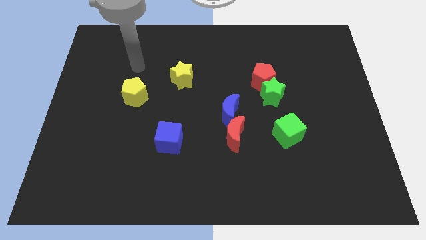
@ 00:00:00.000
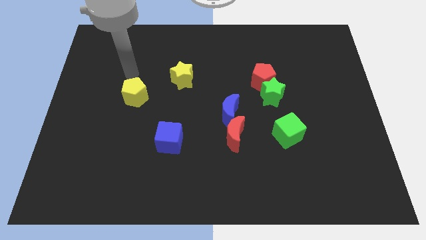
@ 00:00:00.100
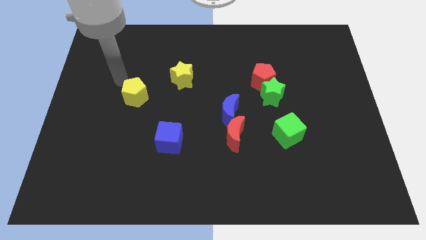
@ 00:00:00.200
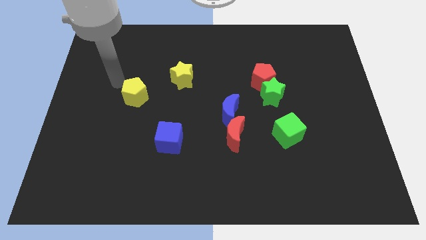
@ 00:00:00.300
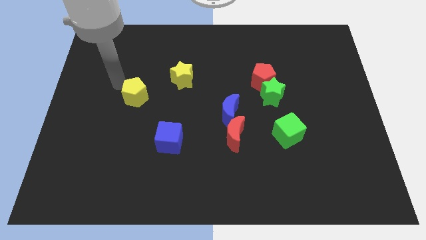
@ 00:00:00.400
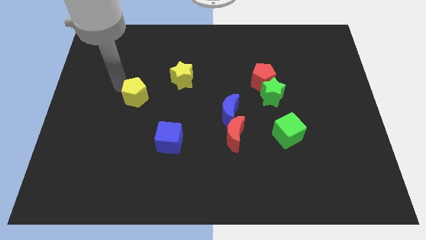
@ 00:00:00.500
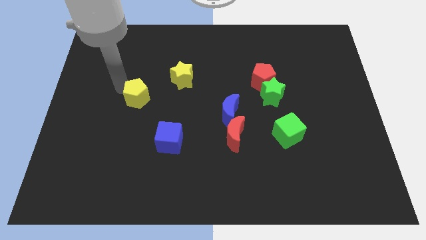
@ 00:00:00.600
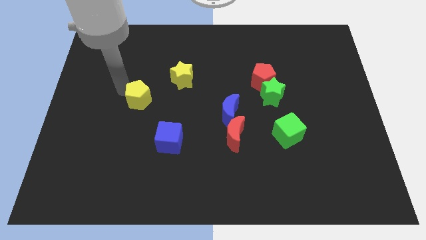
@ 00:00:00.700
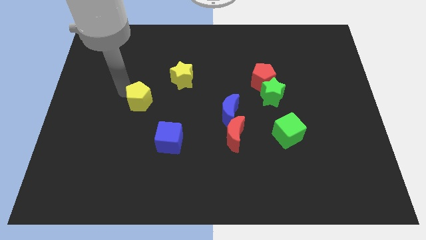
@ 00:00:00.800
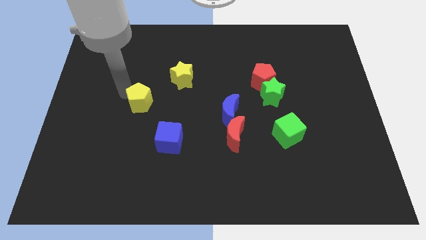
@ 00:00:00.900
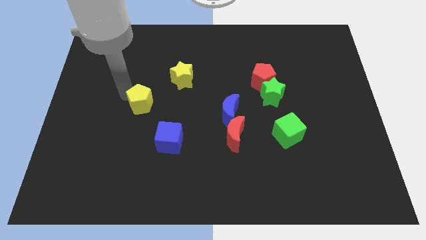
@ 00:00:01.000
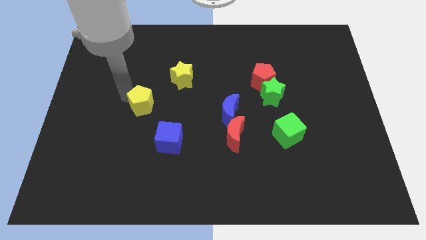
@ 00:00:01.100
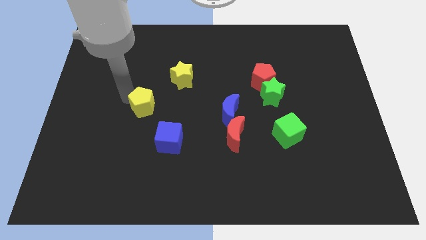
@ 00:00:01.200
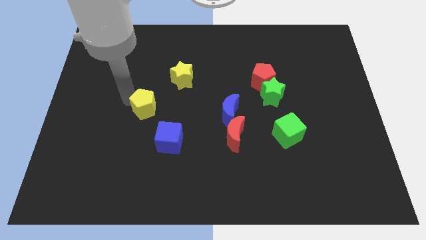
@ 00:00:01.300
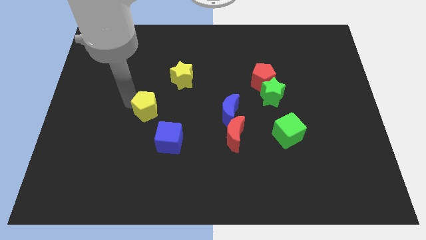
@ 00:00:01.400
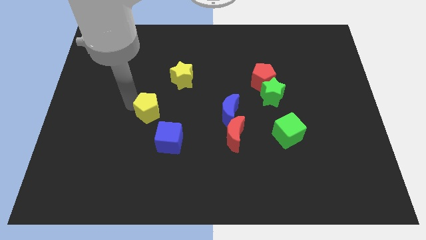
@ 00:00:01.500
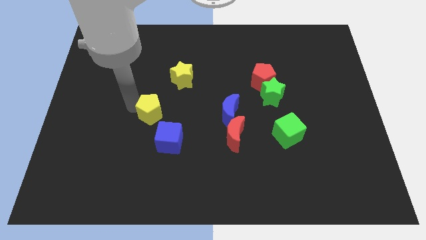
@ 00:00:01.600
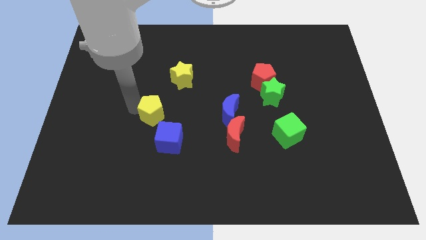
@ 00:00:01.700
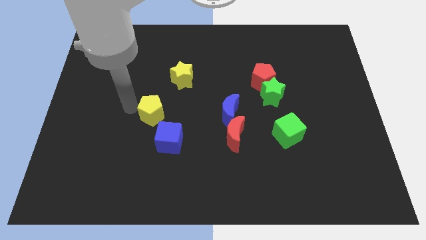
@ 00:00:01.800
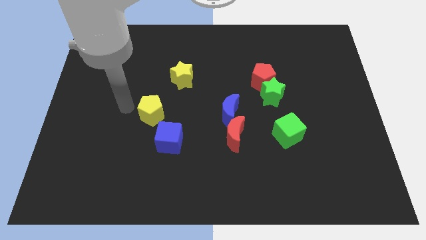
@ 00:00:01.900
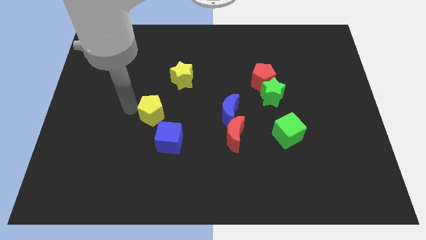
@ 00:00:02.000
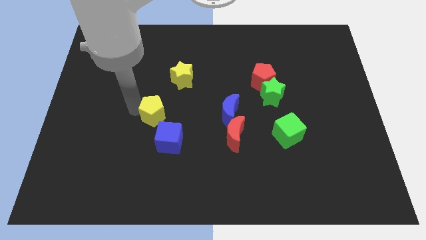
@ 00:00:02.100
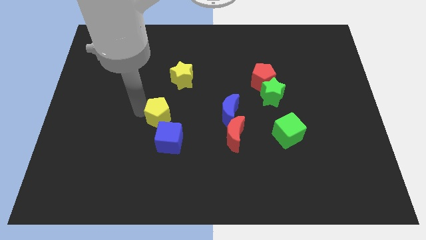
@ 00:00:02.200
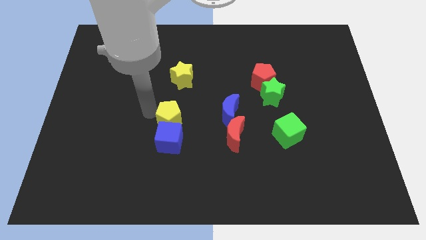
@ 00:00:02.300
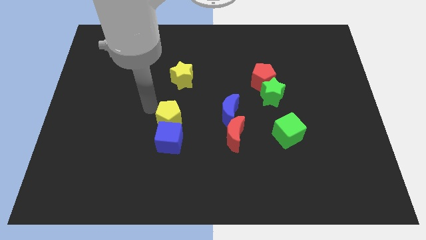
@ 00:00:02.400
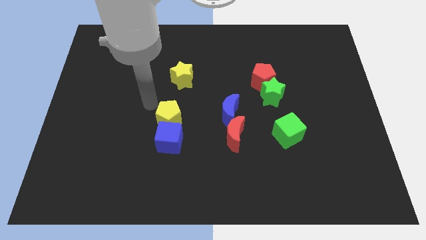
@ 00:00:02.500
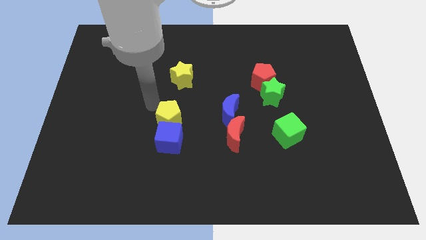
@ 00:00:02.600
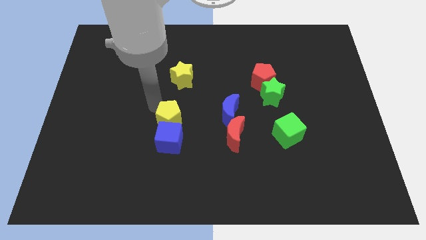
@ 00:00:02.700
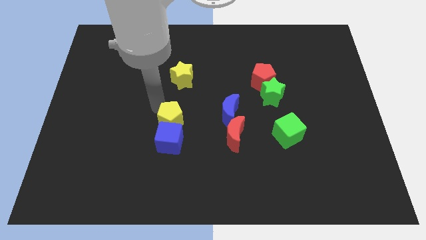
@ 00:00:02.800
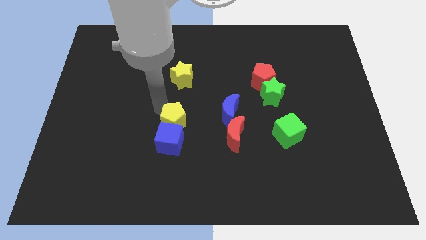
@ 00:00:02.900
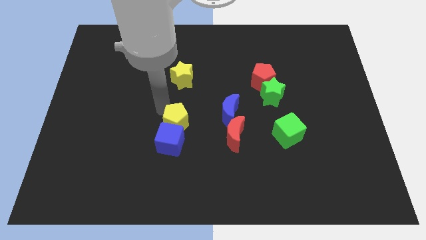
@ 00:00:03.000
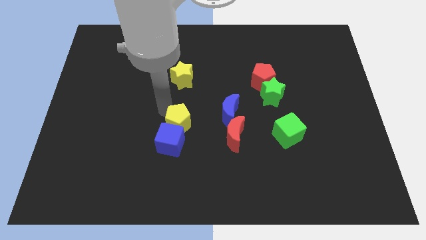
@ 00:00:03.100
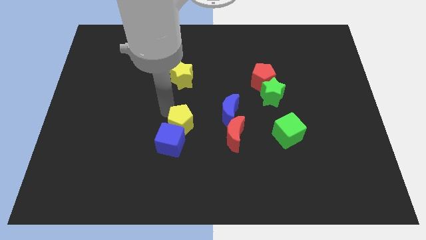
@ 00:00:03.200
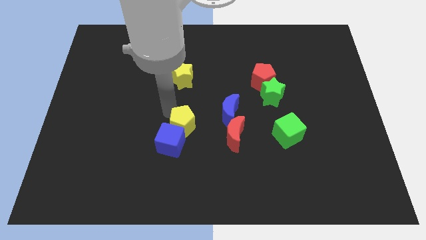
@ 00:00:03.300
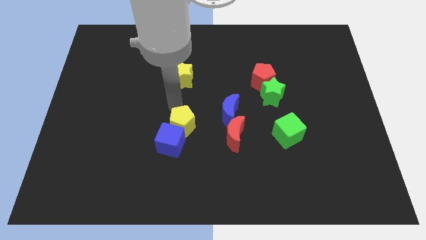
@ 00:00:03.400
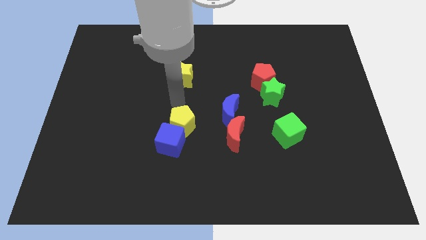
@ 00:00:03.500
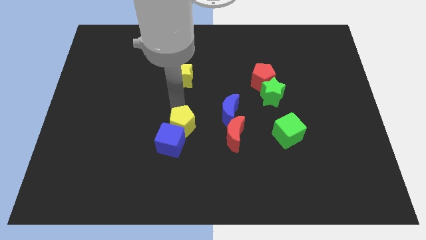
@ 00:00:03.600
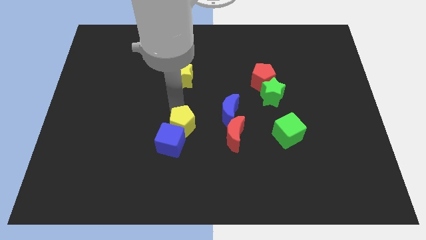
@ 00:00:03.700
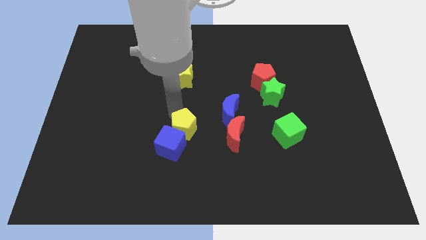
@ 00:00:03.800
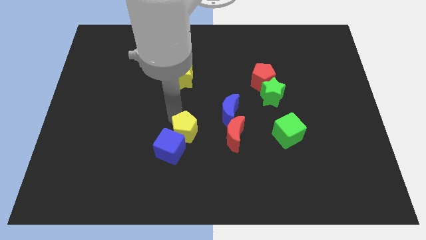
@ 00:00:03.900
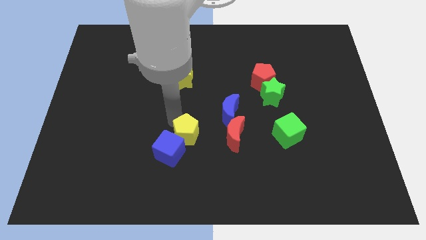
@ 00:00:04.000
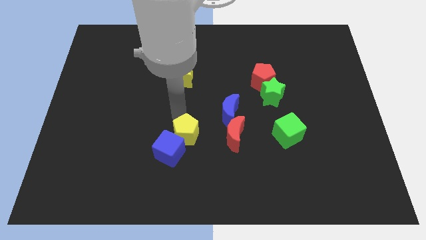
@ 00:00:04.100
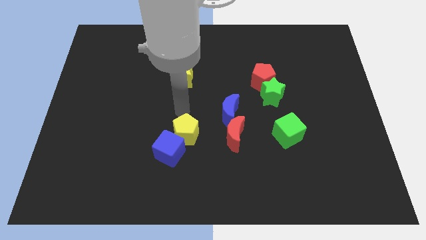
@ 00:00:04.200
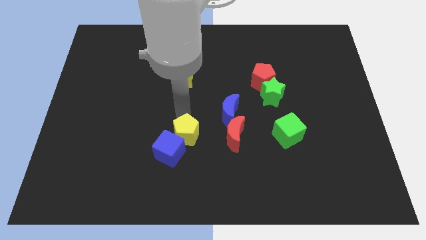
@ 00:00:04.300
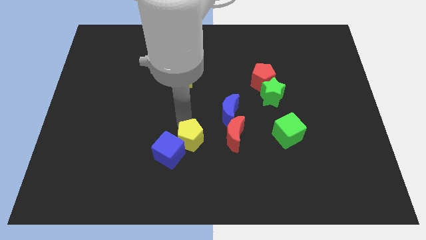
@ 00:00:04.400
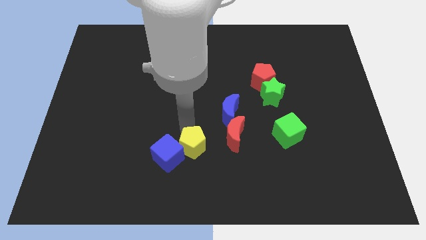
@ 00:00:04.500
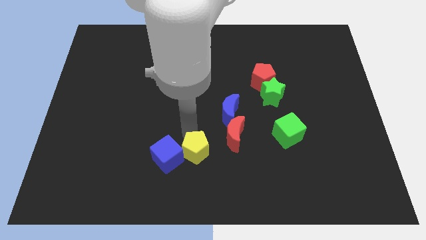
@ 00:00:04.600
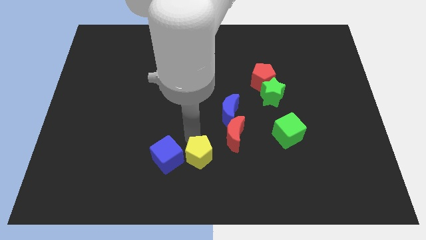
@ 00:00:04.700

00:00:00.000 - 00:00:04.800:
slide the yellow pentagon to the bottom side

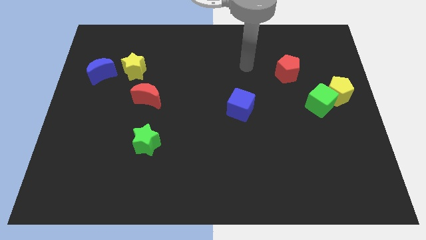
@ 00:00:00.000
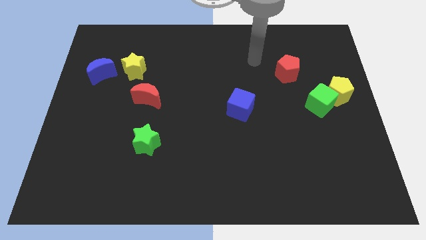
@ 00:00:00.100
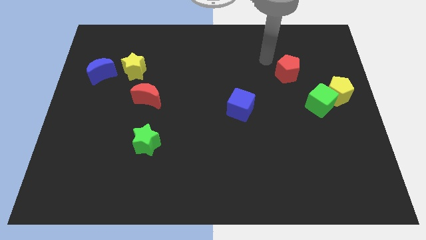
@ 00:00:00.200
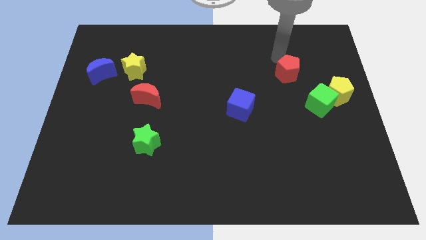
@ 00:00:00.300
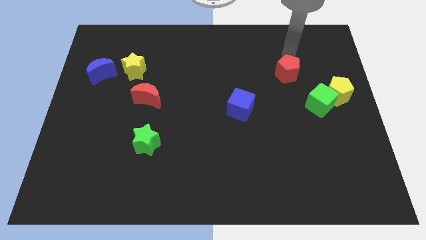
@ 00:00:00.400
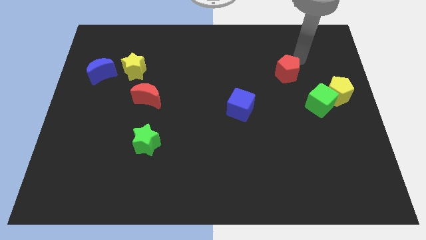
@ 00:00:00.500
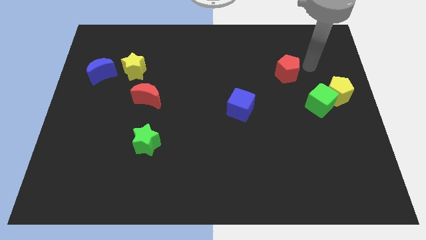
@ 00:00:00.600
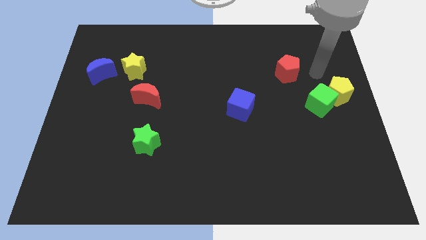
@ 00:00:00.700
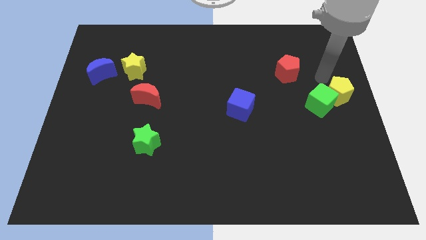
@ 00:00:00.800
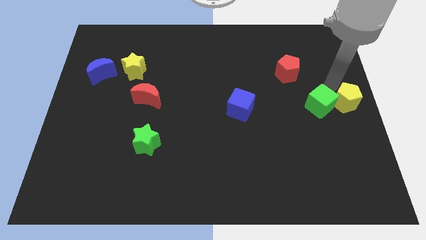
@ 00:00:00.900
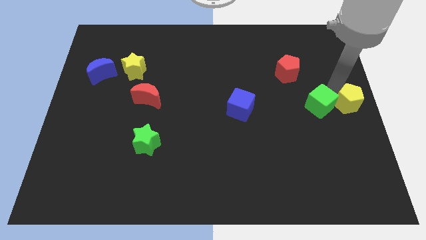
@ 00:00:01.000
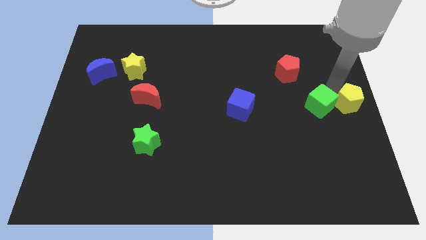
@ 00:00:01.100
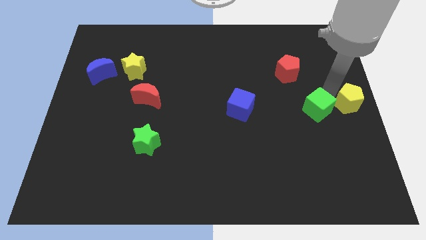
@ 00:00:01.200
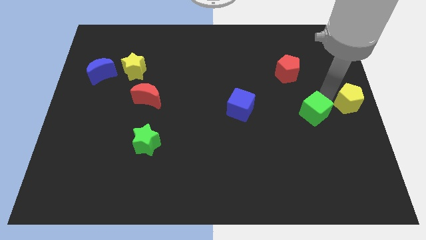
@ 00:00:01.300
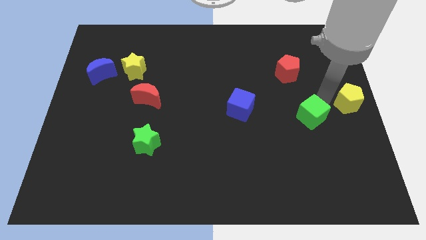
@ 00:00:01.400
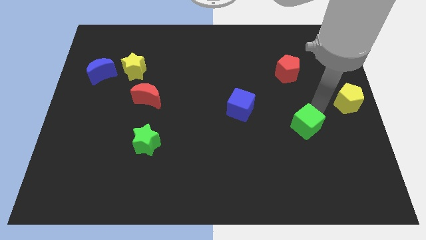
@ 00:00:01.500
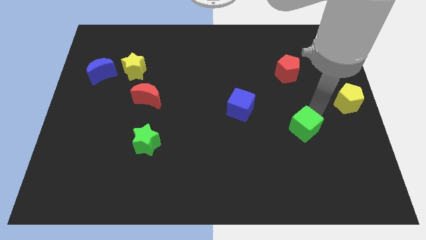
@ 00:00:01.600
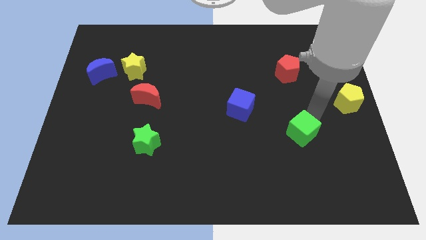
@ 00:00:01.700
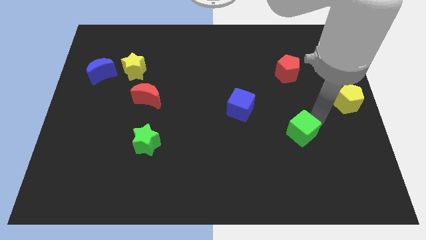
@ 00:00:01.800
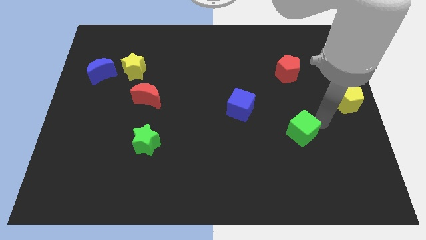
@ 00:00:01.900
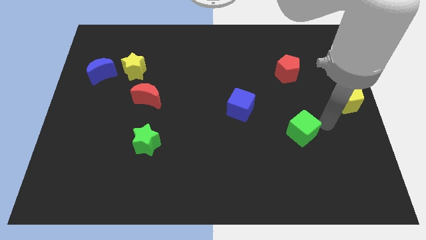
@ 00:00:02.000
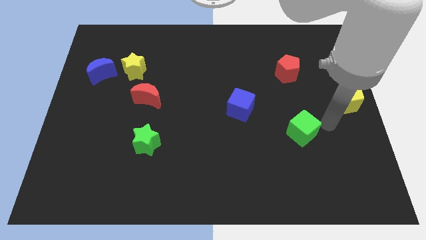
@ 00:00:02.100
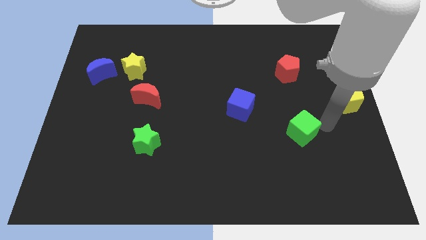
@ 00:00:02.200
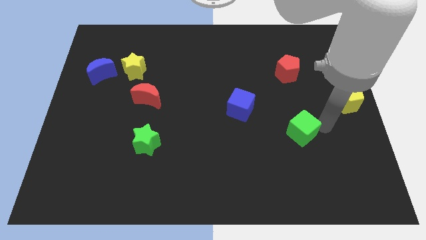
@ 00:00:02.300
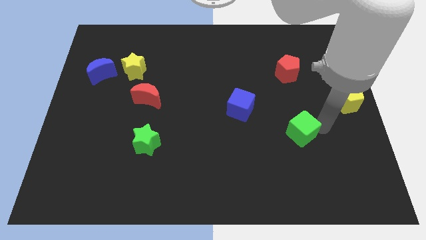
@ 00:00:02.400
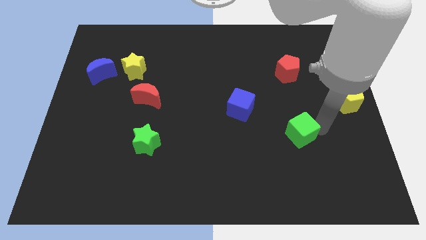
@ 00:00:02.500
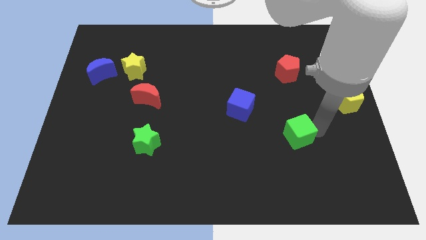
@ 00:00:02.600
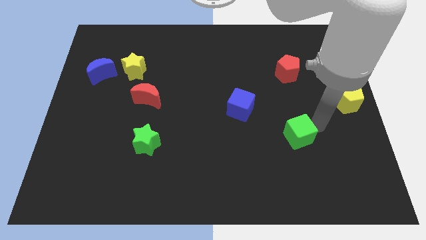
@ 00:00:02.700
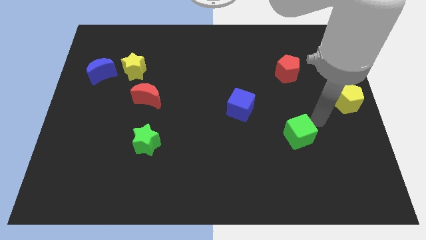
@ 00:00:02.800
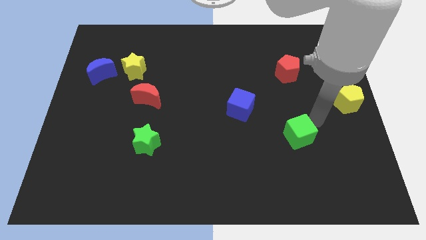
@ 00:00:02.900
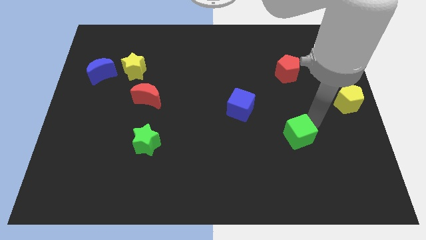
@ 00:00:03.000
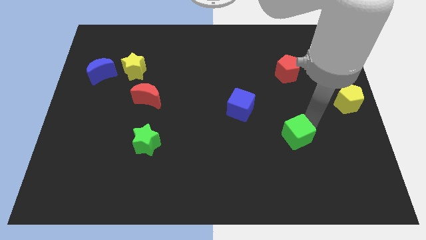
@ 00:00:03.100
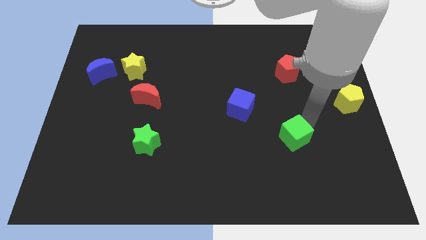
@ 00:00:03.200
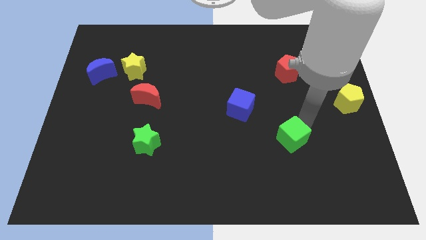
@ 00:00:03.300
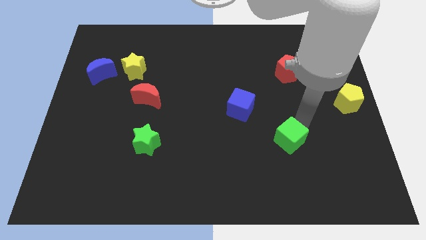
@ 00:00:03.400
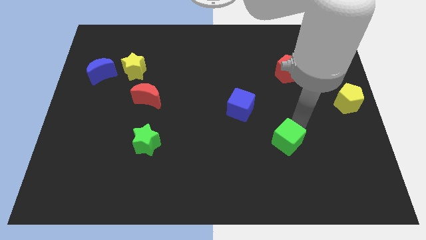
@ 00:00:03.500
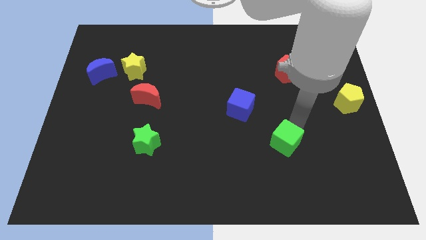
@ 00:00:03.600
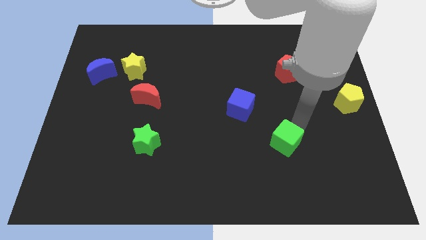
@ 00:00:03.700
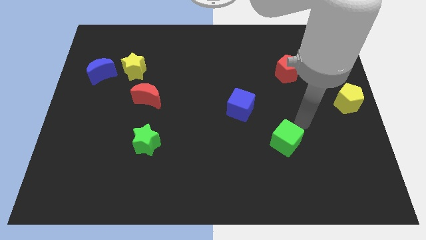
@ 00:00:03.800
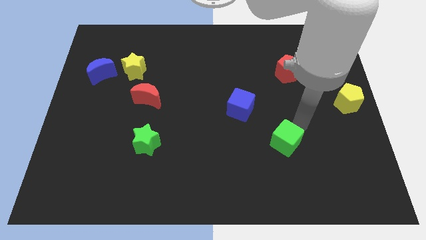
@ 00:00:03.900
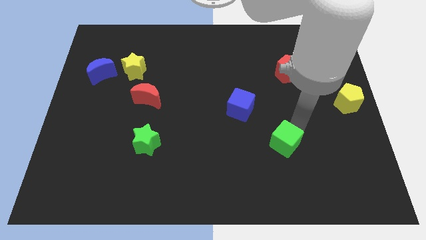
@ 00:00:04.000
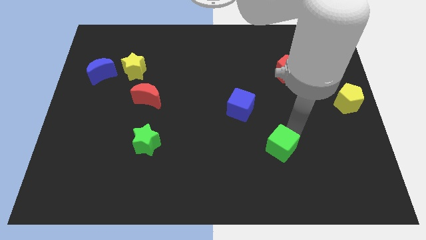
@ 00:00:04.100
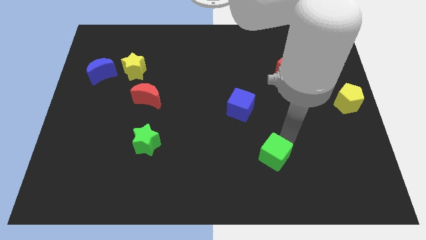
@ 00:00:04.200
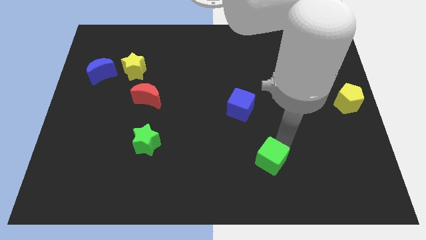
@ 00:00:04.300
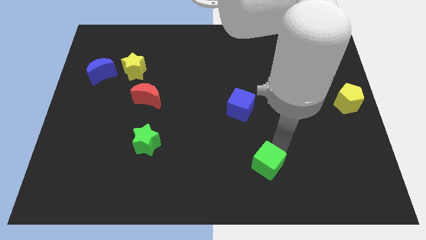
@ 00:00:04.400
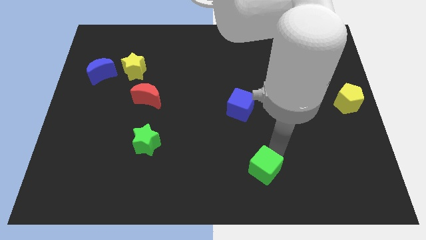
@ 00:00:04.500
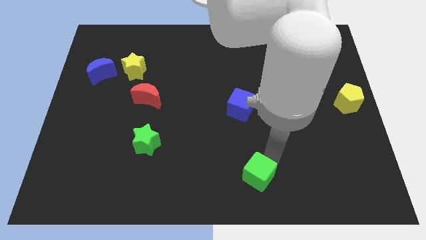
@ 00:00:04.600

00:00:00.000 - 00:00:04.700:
put the green cube to the bottom
